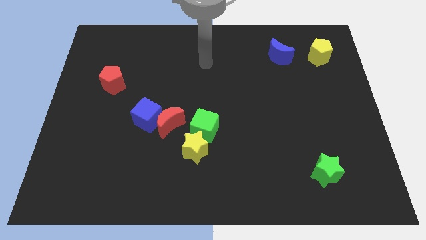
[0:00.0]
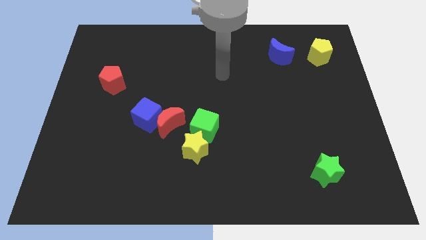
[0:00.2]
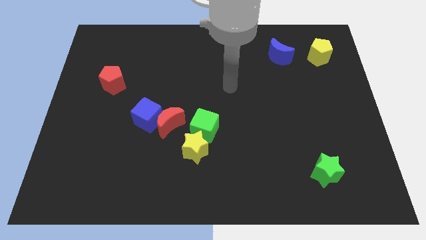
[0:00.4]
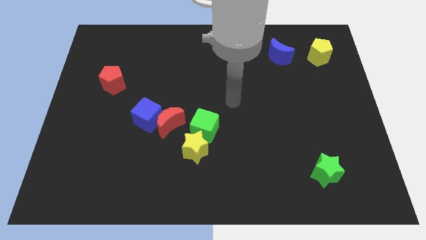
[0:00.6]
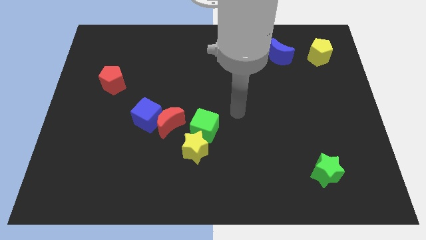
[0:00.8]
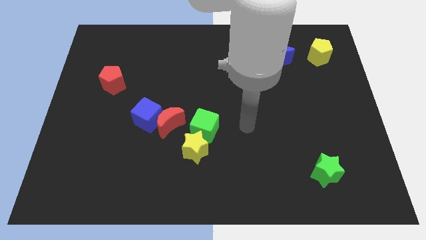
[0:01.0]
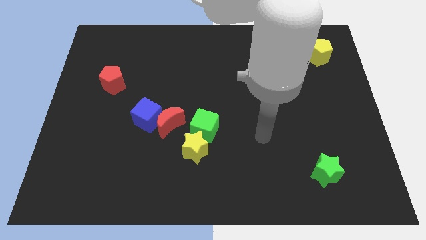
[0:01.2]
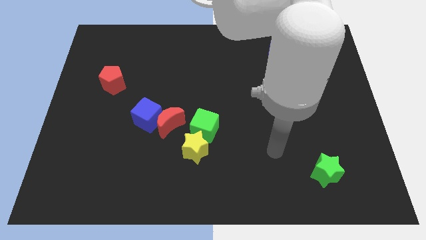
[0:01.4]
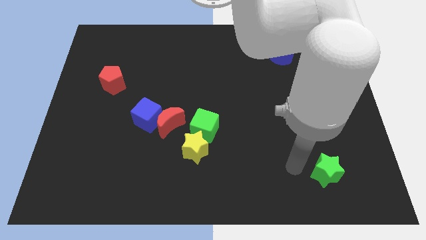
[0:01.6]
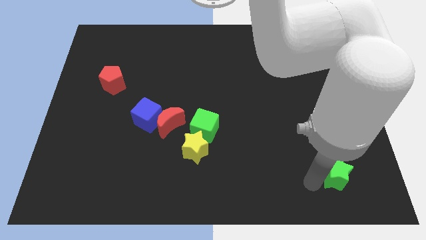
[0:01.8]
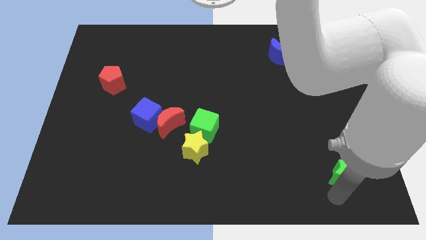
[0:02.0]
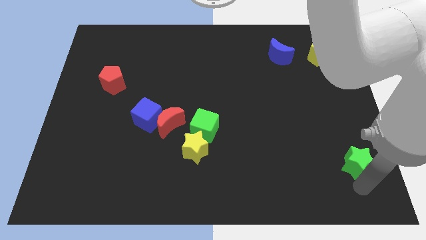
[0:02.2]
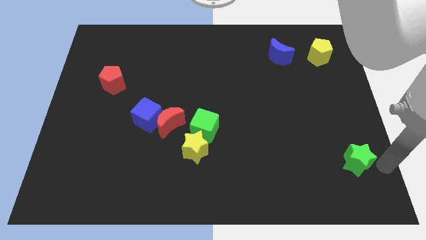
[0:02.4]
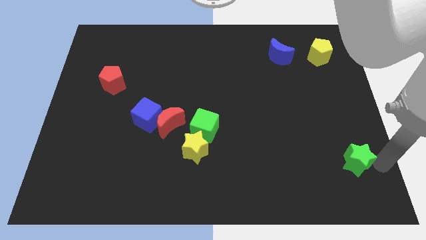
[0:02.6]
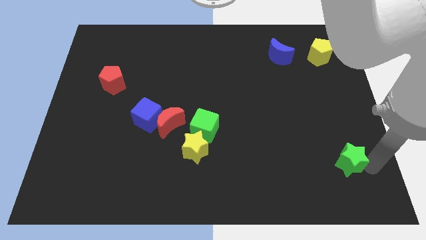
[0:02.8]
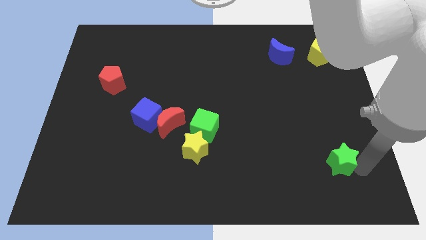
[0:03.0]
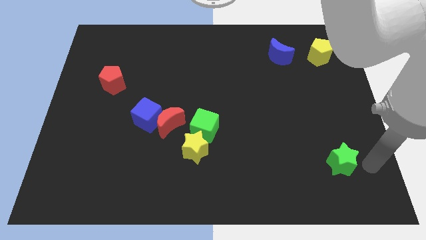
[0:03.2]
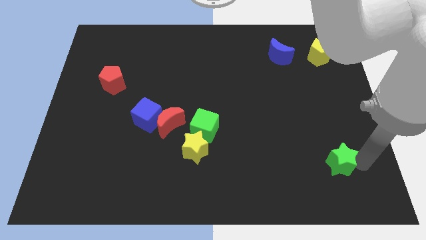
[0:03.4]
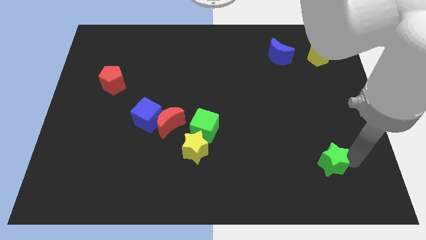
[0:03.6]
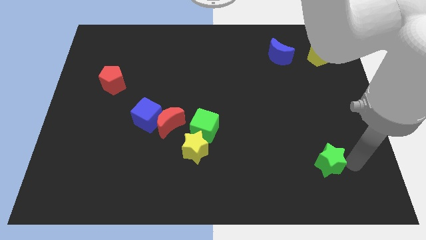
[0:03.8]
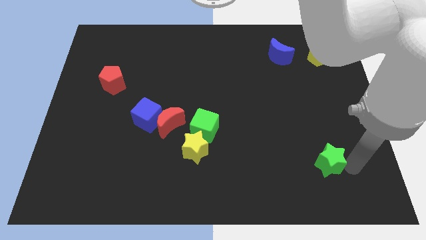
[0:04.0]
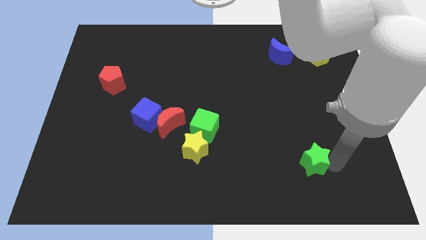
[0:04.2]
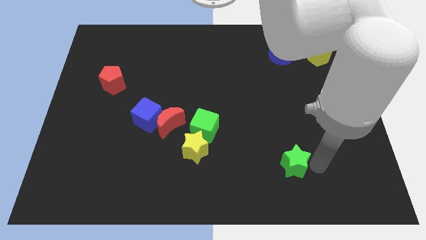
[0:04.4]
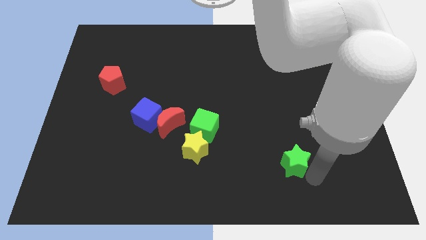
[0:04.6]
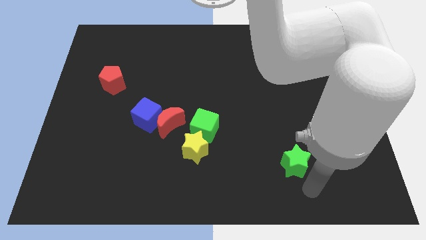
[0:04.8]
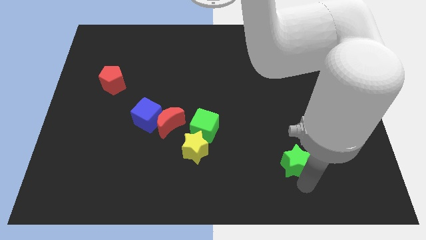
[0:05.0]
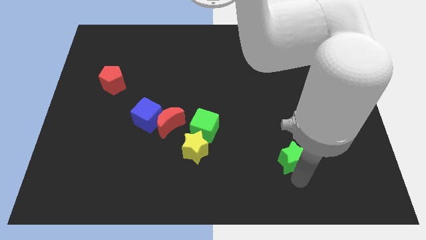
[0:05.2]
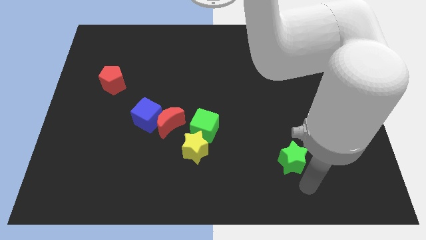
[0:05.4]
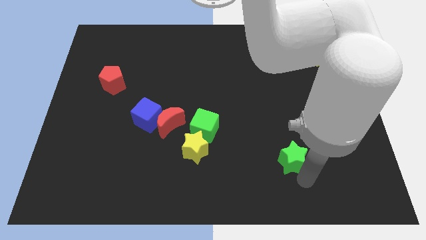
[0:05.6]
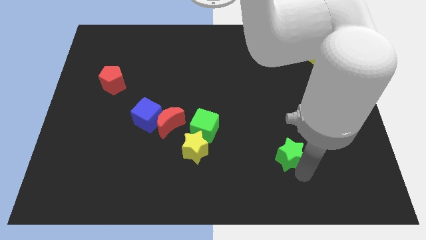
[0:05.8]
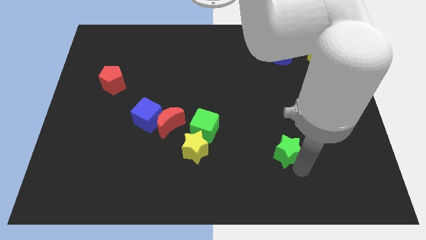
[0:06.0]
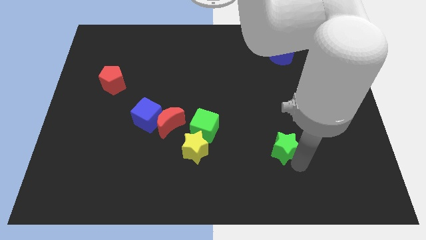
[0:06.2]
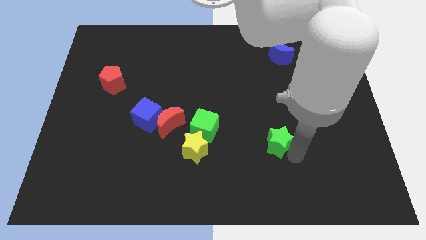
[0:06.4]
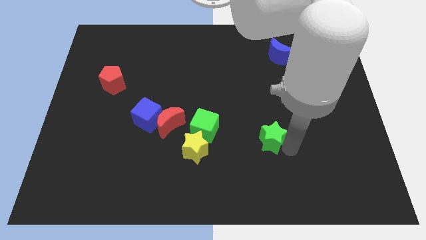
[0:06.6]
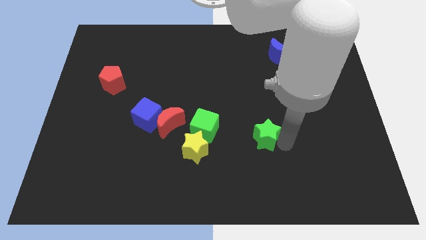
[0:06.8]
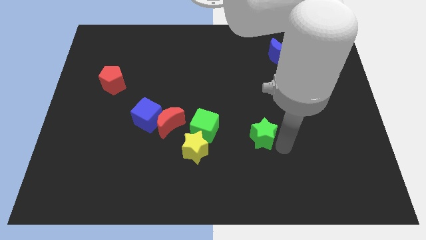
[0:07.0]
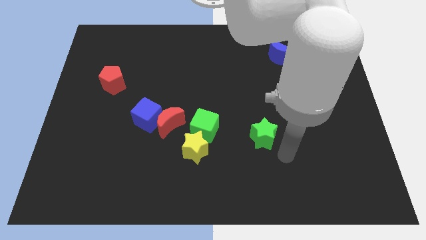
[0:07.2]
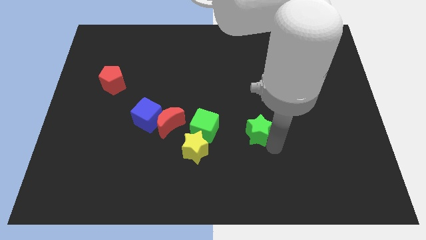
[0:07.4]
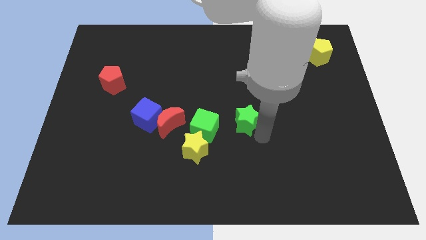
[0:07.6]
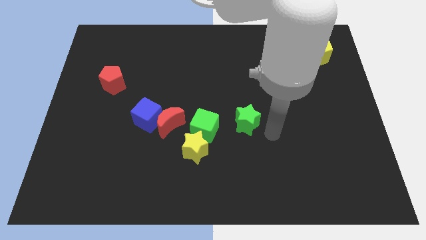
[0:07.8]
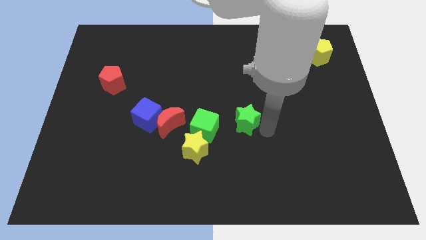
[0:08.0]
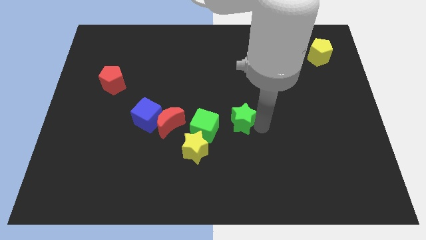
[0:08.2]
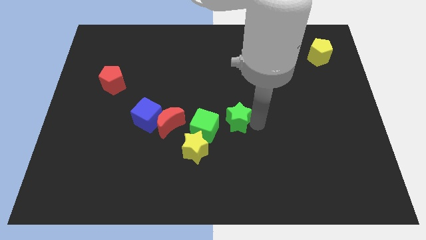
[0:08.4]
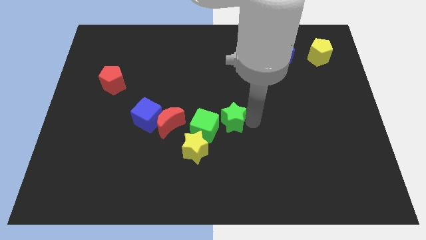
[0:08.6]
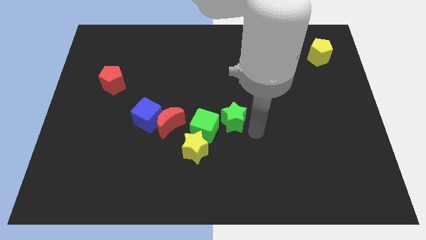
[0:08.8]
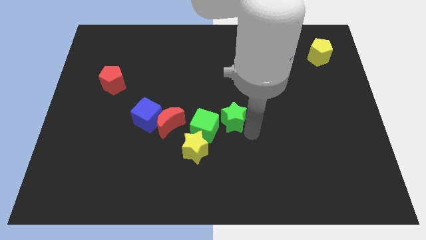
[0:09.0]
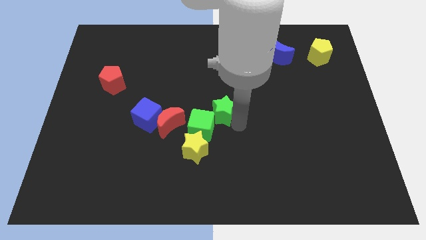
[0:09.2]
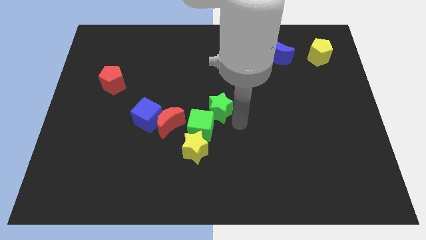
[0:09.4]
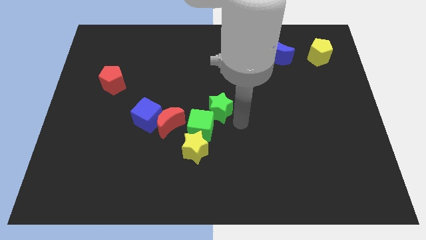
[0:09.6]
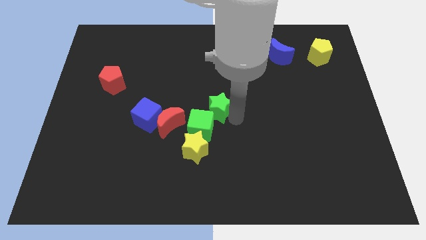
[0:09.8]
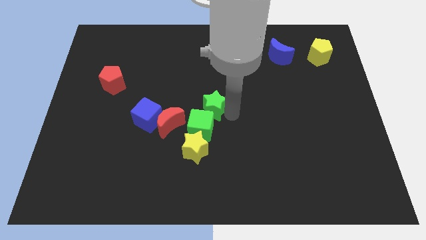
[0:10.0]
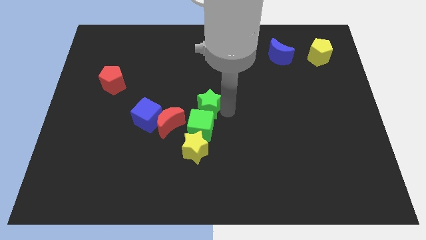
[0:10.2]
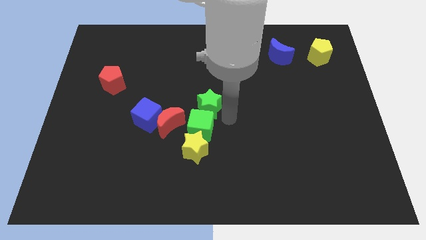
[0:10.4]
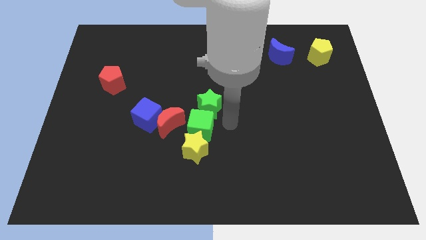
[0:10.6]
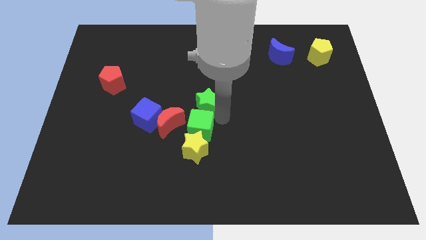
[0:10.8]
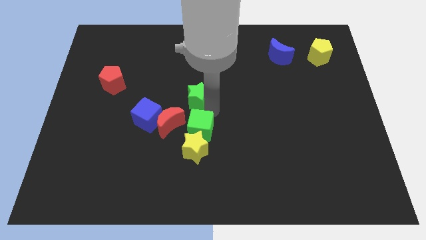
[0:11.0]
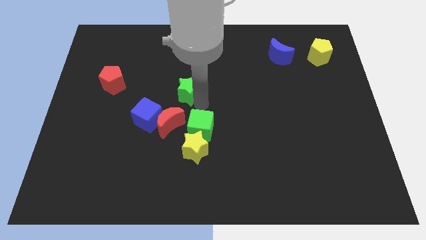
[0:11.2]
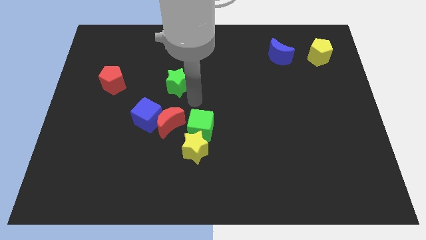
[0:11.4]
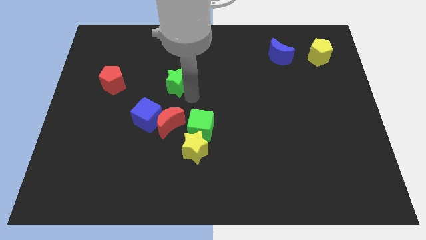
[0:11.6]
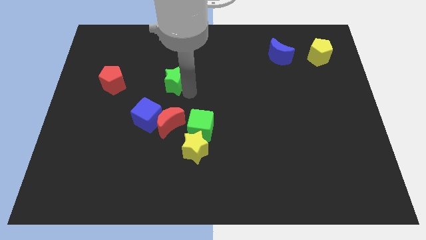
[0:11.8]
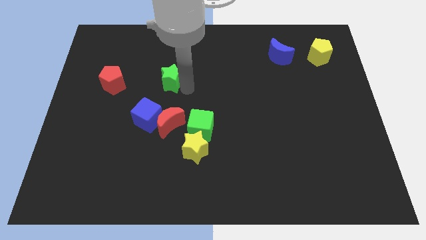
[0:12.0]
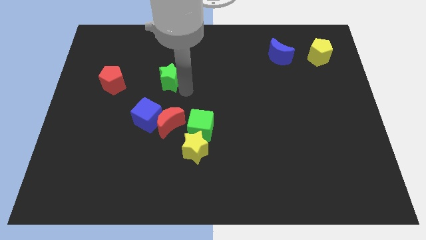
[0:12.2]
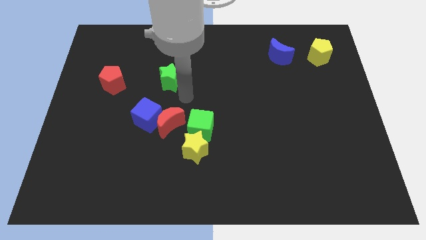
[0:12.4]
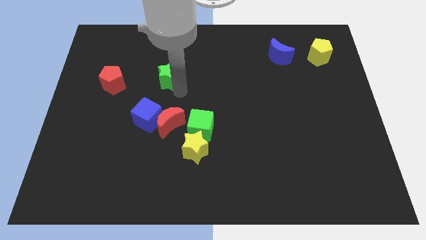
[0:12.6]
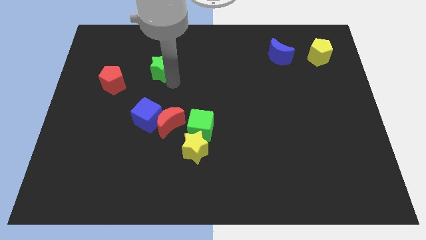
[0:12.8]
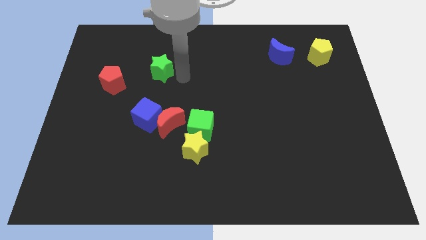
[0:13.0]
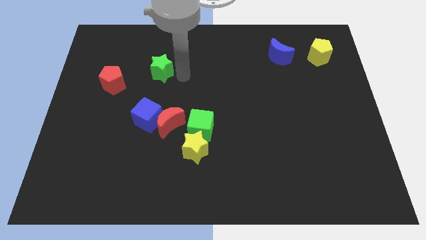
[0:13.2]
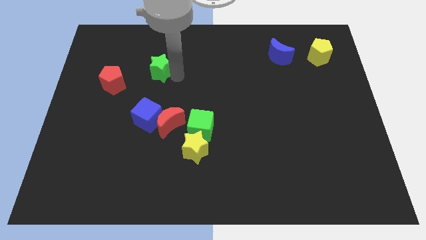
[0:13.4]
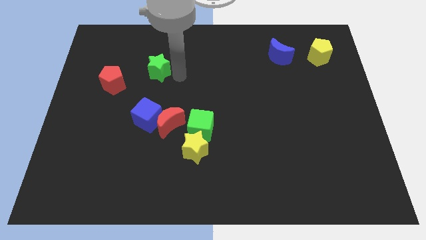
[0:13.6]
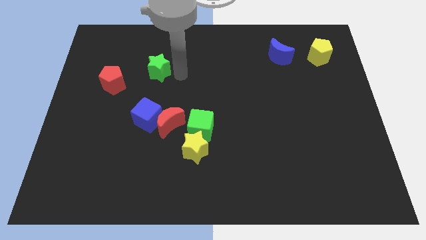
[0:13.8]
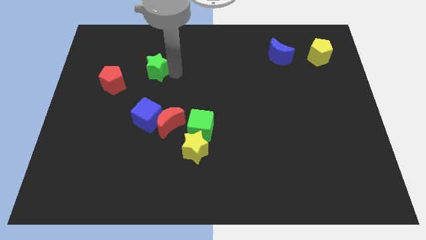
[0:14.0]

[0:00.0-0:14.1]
slide the green star to the top right of the red pentagon
